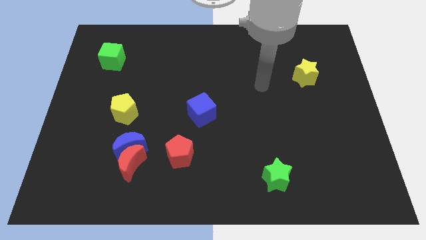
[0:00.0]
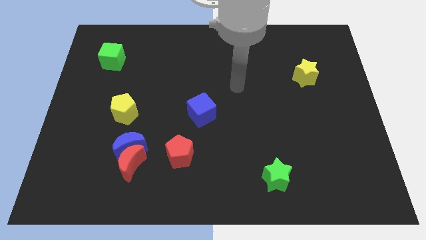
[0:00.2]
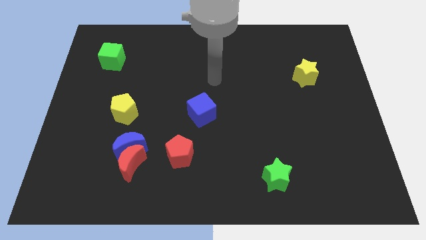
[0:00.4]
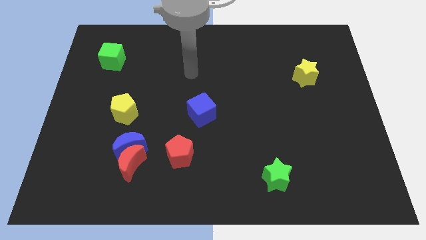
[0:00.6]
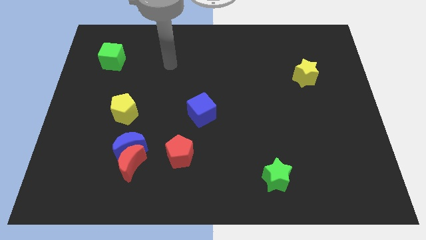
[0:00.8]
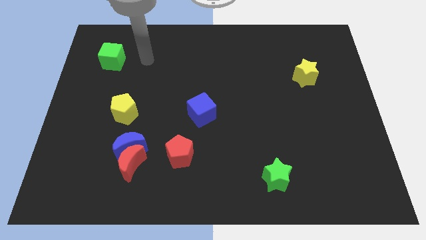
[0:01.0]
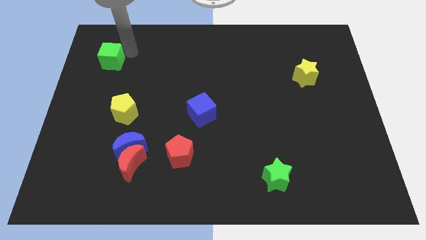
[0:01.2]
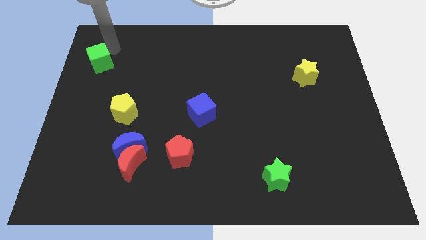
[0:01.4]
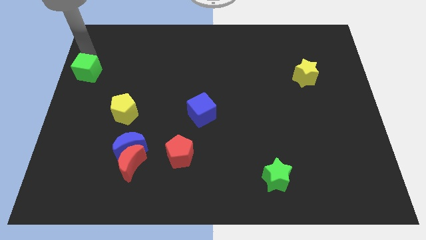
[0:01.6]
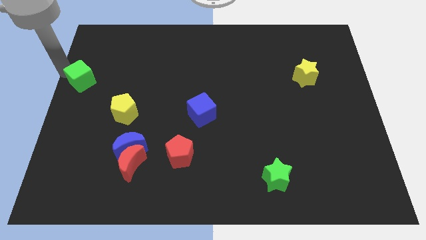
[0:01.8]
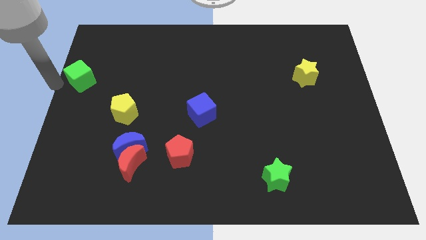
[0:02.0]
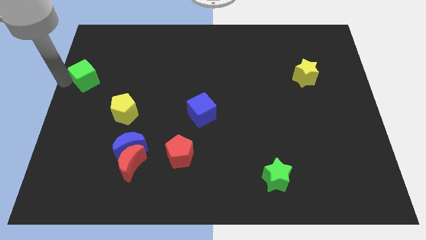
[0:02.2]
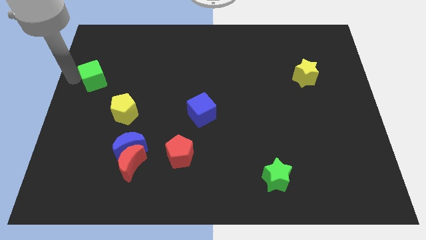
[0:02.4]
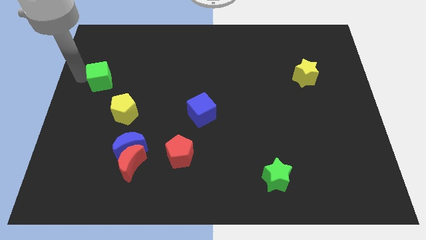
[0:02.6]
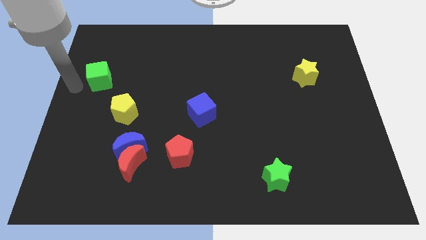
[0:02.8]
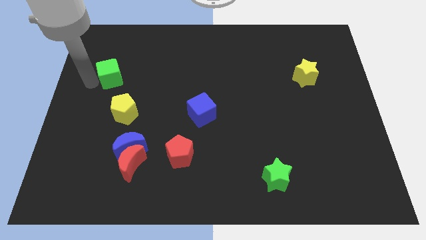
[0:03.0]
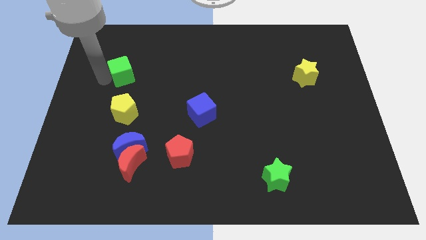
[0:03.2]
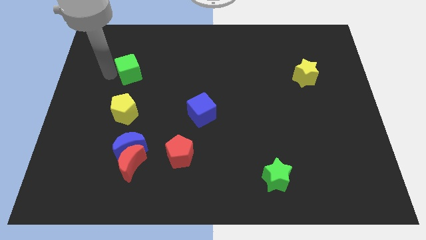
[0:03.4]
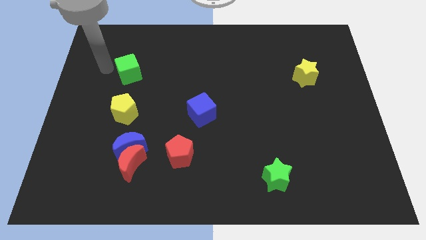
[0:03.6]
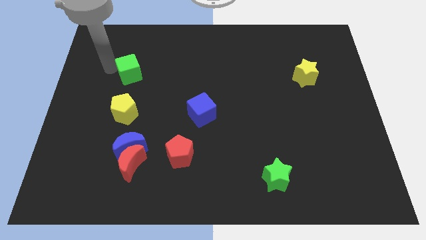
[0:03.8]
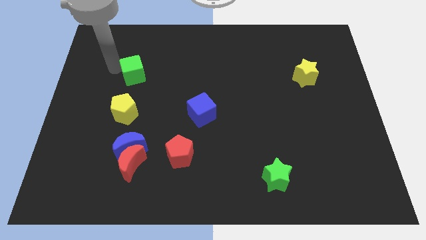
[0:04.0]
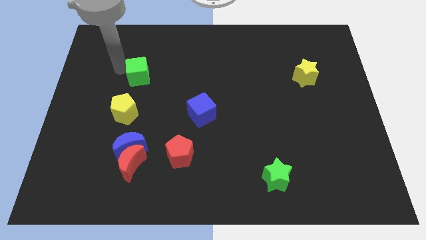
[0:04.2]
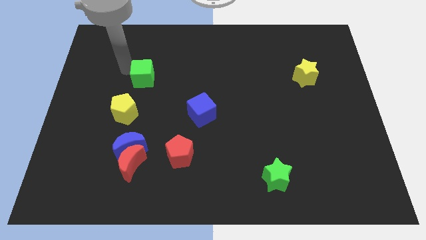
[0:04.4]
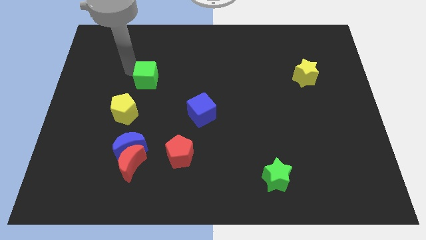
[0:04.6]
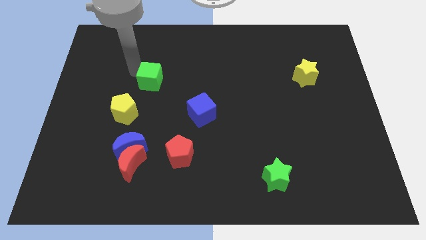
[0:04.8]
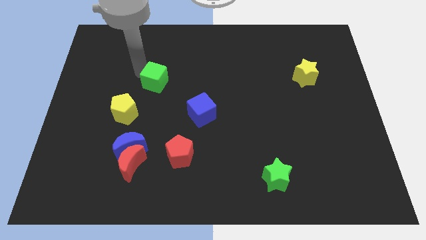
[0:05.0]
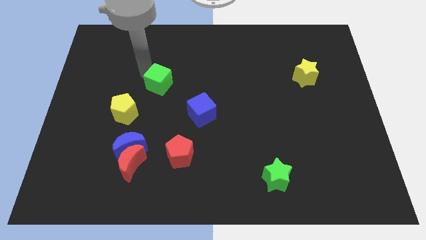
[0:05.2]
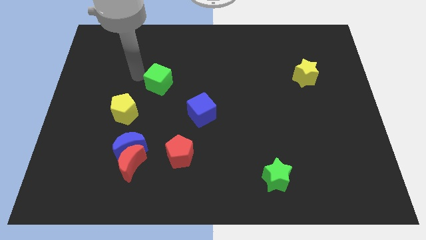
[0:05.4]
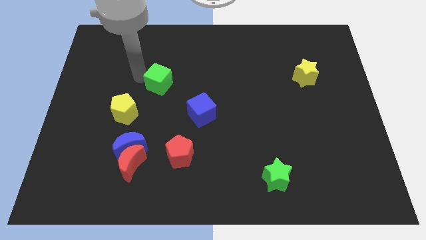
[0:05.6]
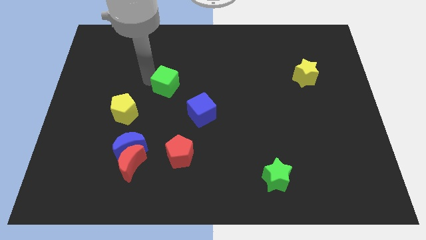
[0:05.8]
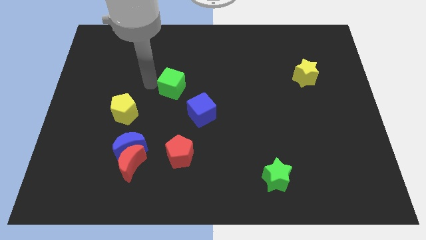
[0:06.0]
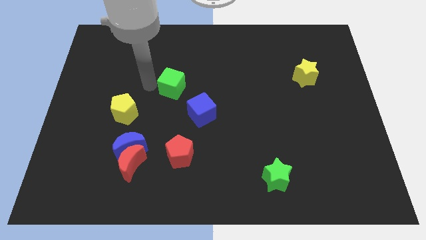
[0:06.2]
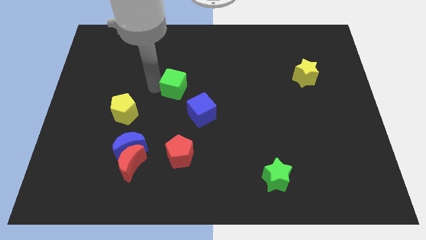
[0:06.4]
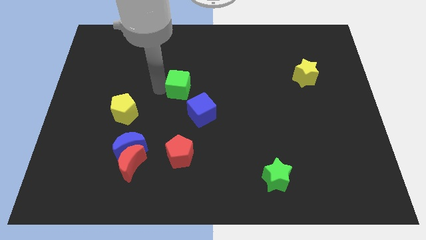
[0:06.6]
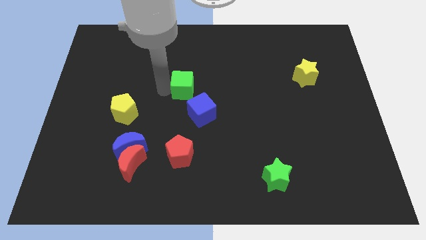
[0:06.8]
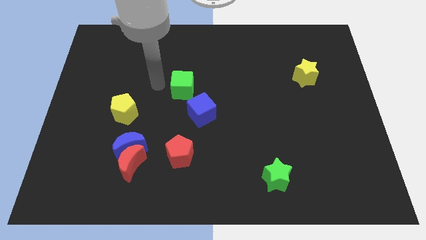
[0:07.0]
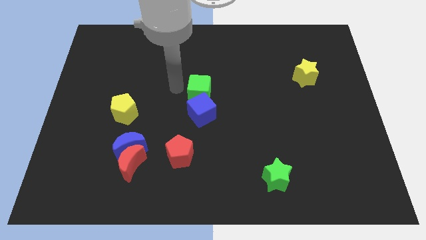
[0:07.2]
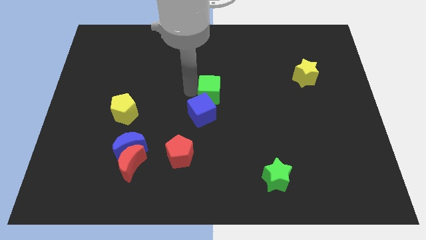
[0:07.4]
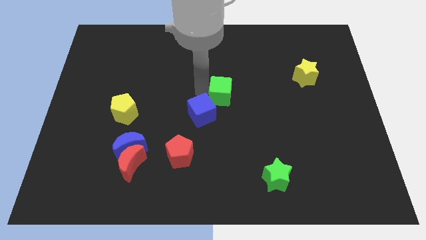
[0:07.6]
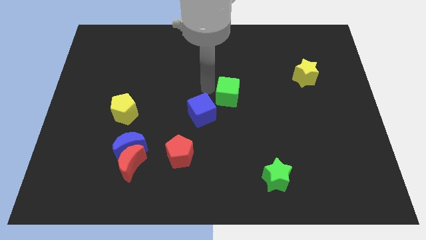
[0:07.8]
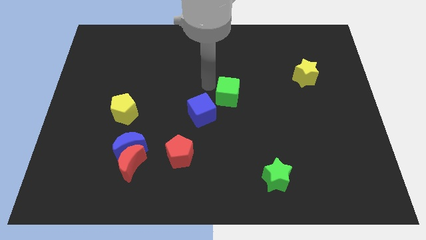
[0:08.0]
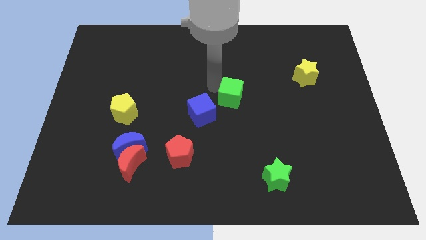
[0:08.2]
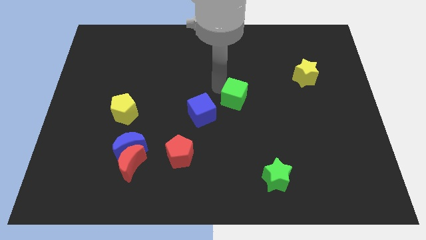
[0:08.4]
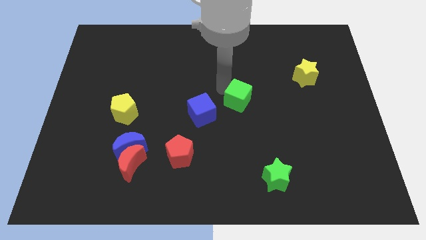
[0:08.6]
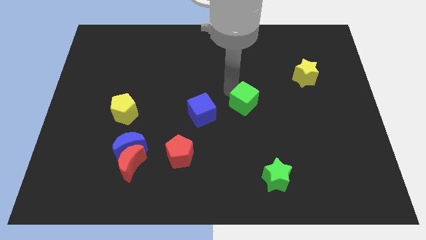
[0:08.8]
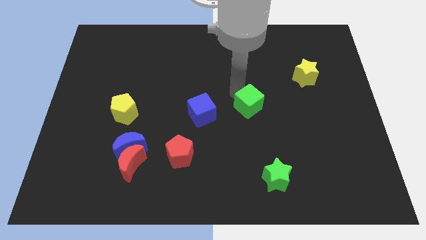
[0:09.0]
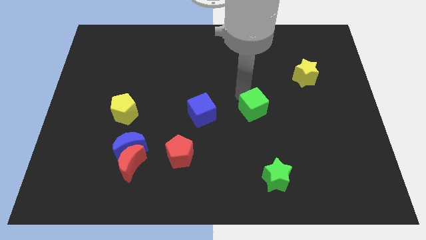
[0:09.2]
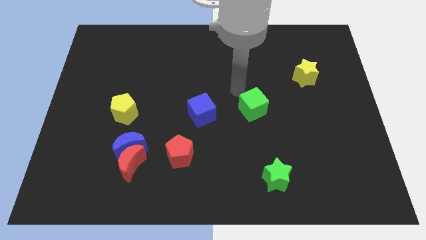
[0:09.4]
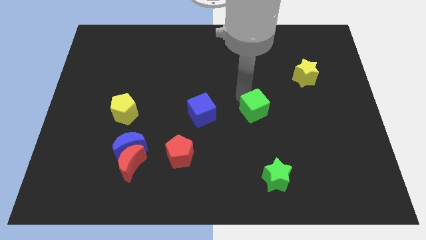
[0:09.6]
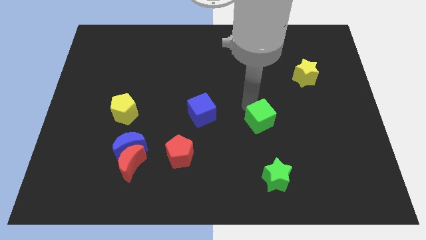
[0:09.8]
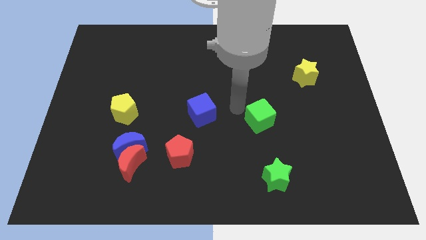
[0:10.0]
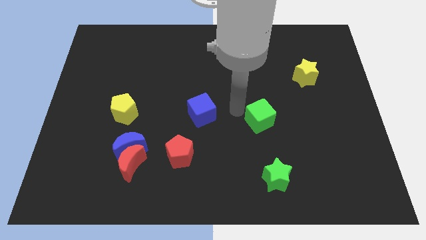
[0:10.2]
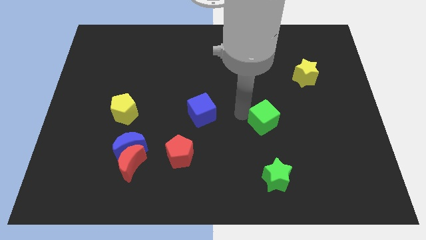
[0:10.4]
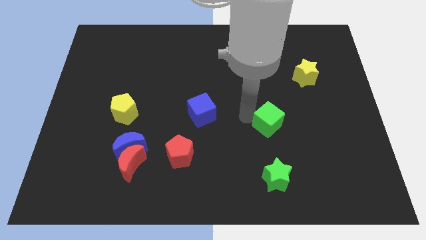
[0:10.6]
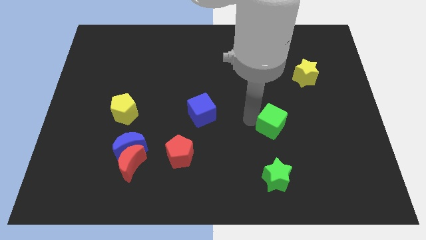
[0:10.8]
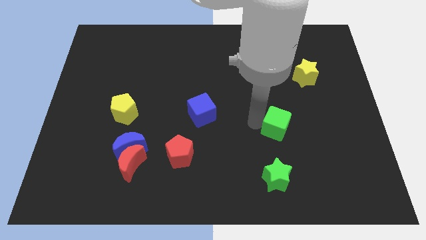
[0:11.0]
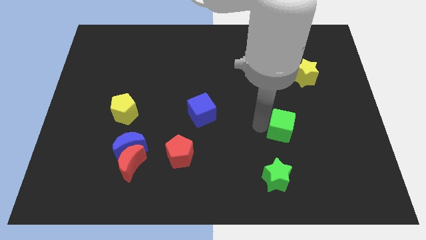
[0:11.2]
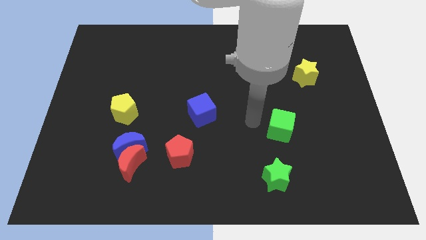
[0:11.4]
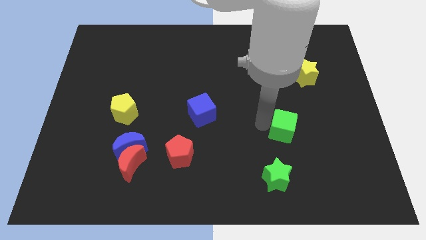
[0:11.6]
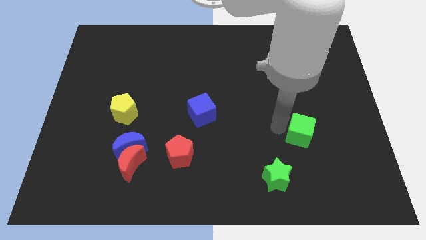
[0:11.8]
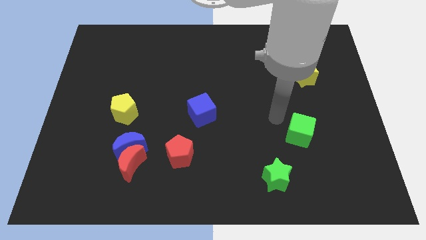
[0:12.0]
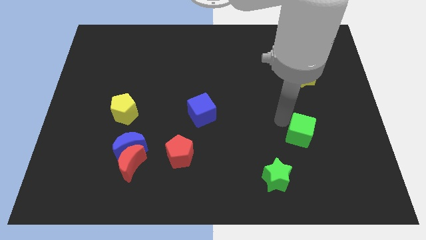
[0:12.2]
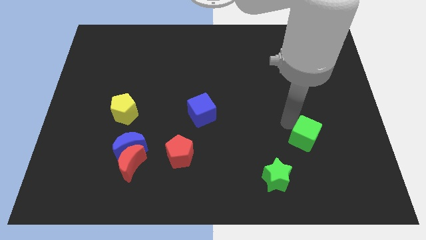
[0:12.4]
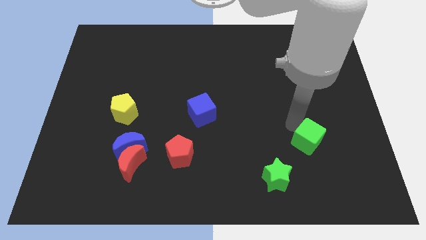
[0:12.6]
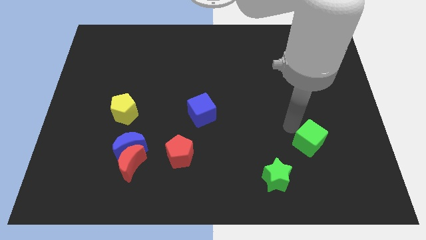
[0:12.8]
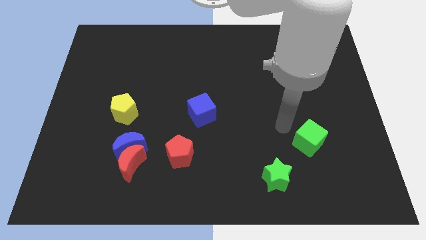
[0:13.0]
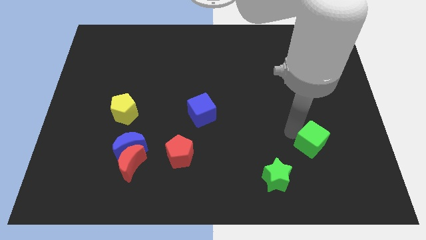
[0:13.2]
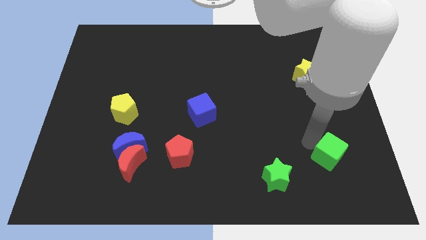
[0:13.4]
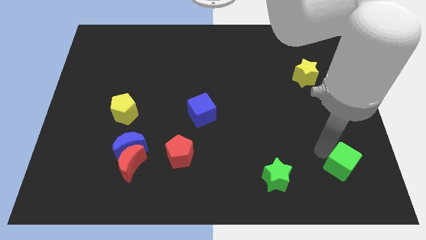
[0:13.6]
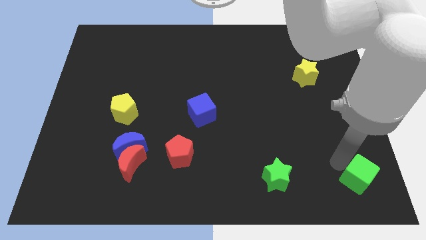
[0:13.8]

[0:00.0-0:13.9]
move the green cube to the bottom right of the board

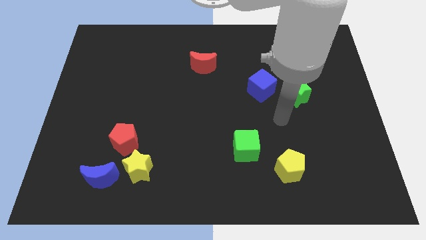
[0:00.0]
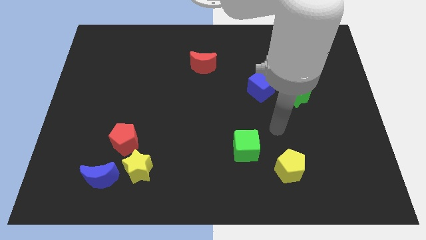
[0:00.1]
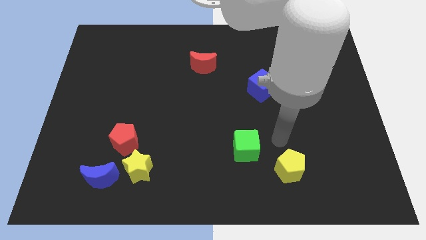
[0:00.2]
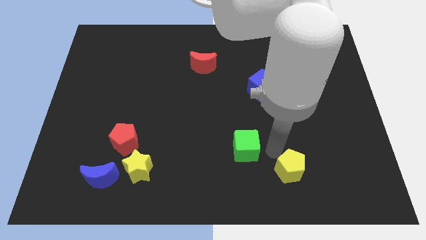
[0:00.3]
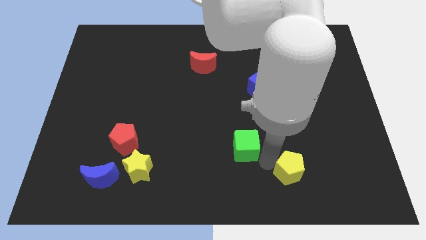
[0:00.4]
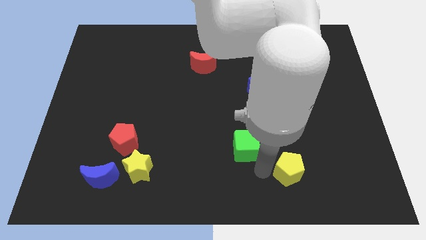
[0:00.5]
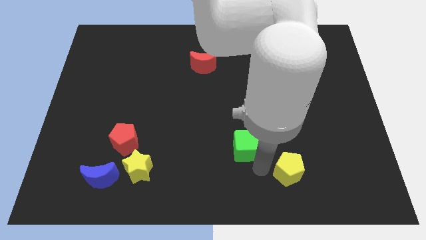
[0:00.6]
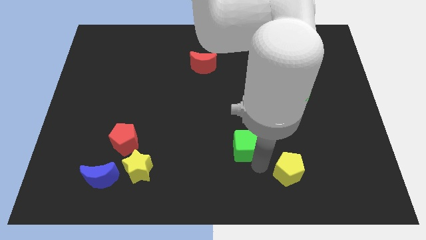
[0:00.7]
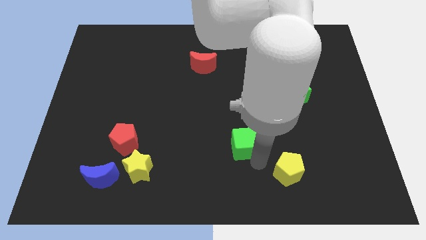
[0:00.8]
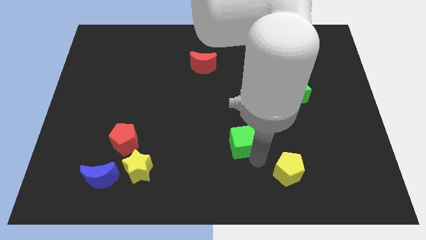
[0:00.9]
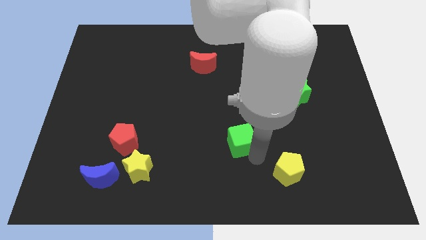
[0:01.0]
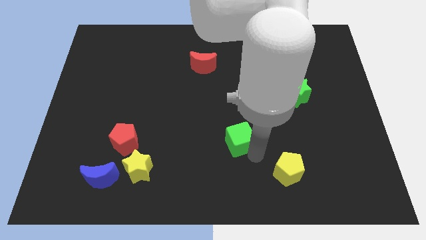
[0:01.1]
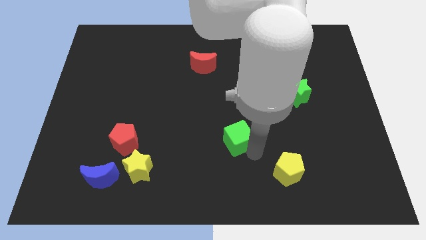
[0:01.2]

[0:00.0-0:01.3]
slide the green cube to the center of the board
